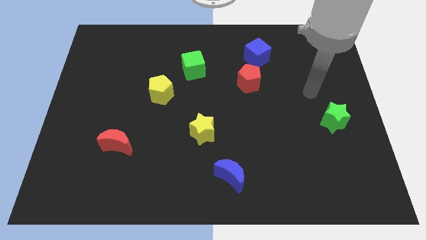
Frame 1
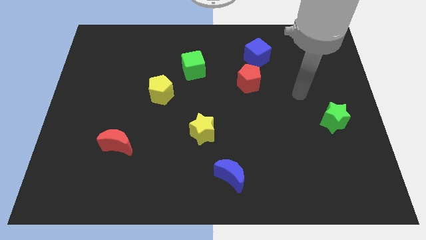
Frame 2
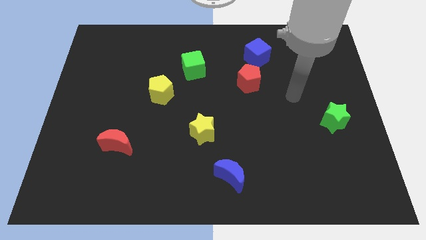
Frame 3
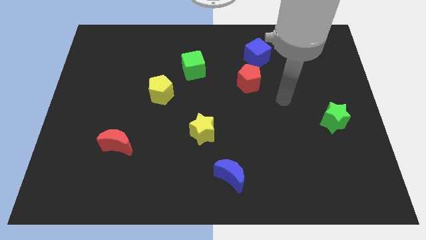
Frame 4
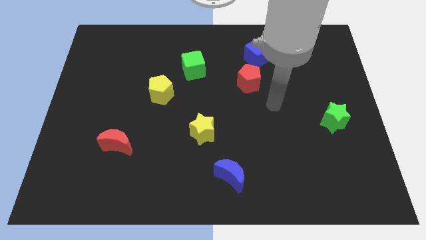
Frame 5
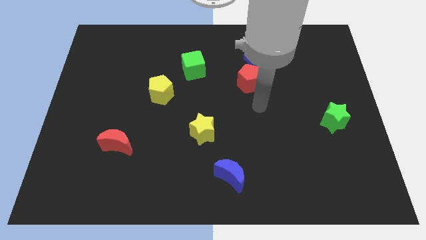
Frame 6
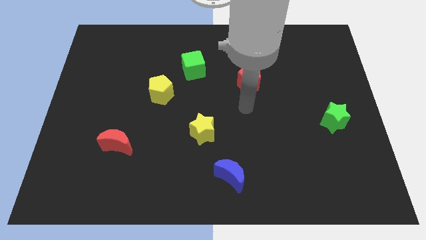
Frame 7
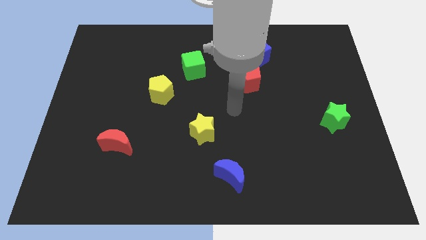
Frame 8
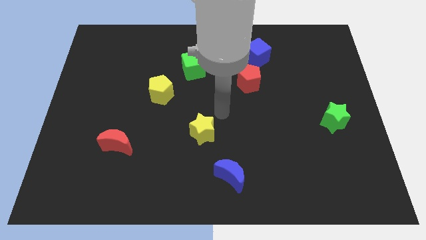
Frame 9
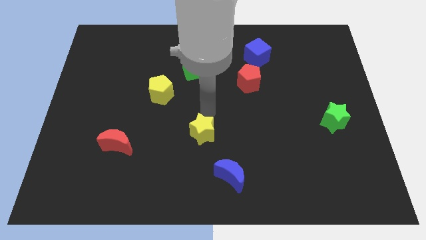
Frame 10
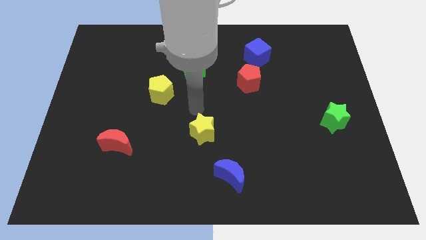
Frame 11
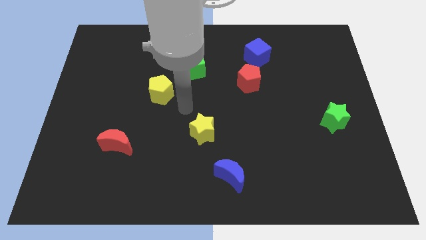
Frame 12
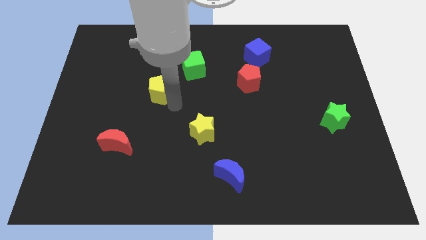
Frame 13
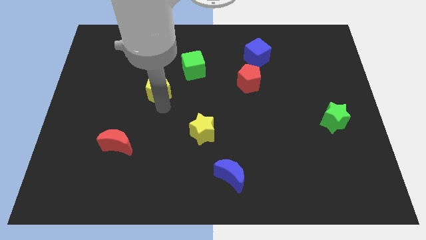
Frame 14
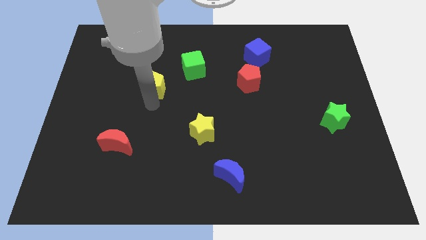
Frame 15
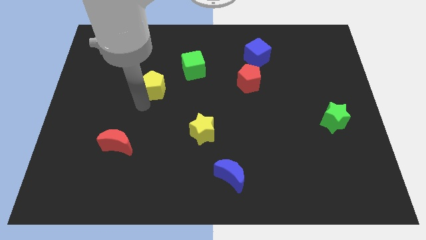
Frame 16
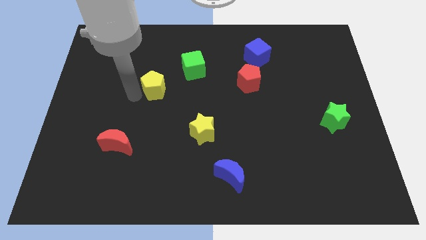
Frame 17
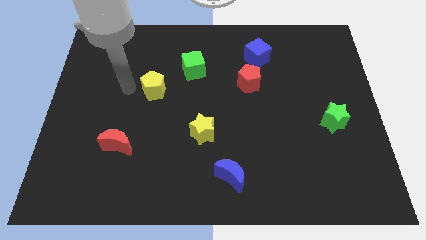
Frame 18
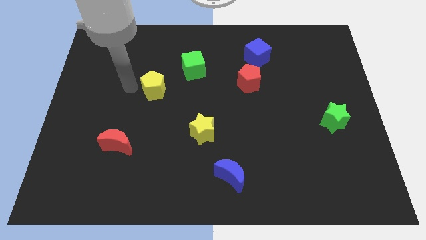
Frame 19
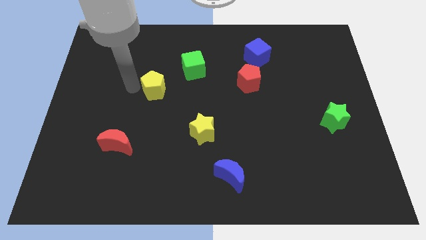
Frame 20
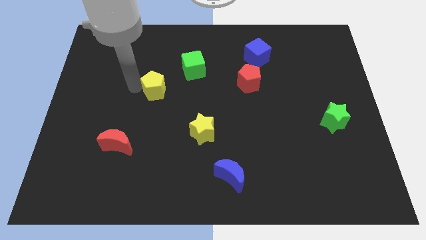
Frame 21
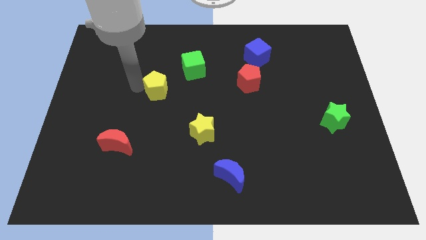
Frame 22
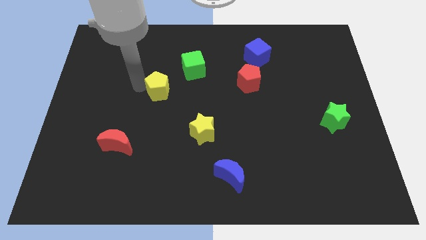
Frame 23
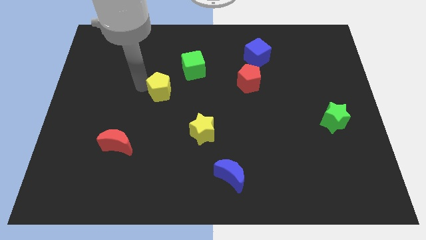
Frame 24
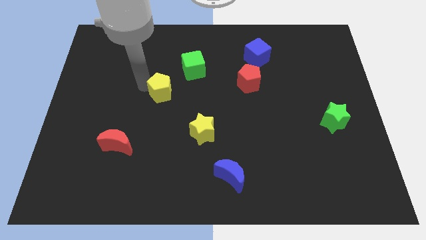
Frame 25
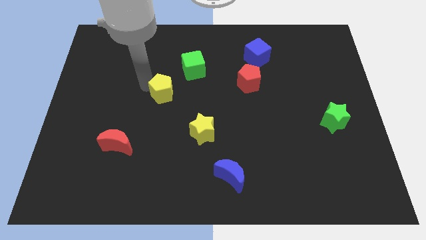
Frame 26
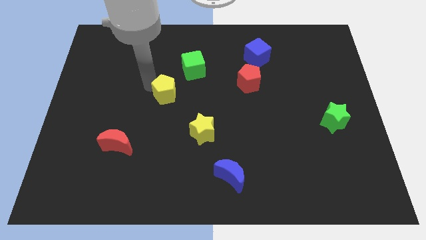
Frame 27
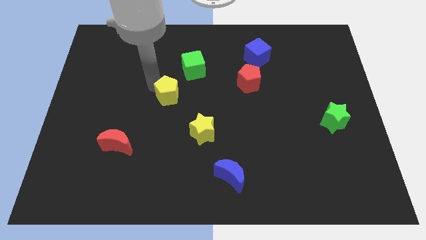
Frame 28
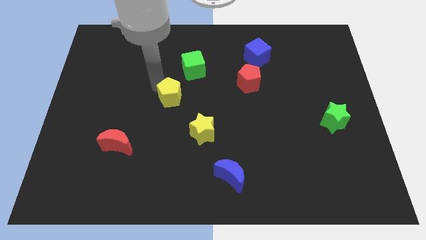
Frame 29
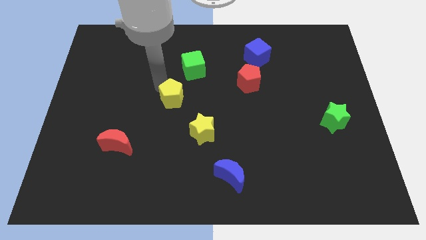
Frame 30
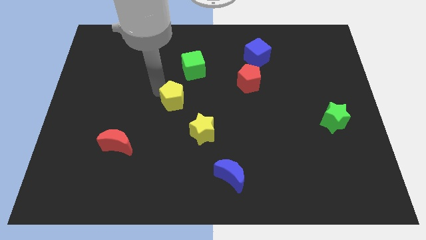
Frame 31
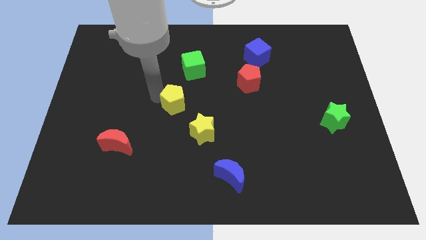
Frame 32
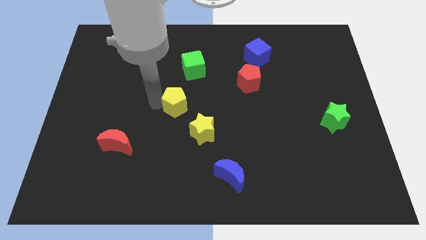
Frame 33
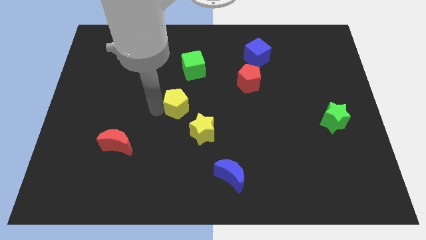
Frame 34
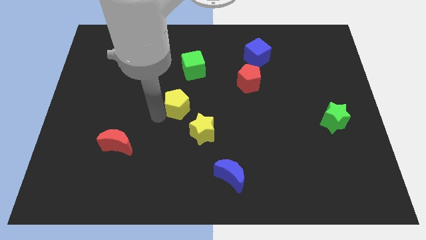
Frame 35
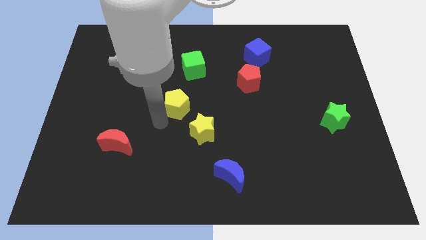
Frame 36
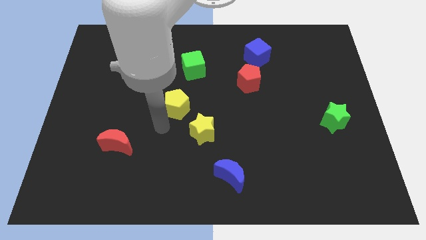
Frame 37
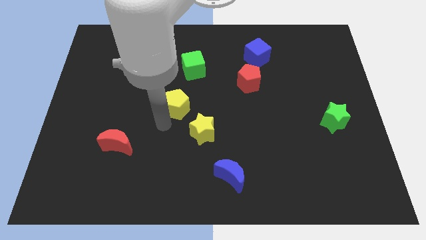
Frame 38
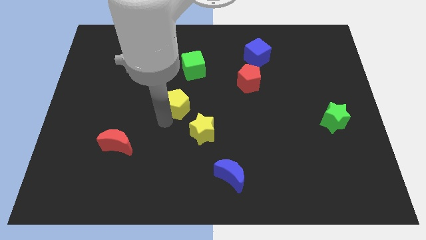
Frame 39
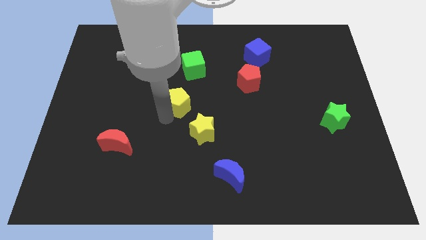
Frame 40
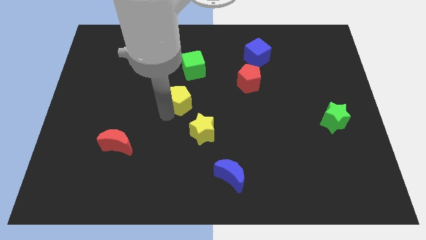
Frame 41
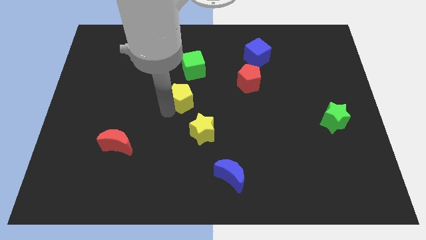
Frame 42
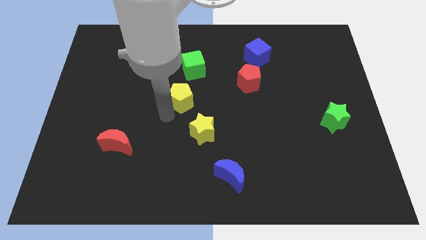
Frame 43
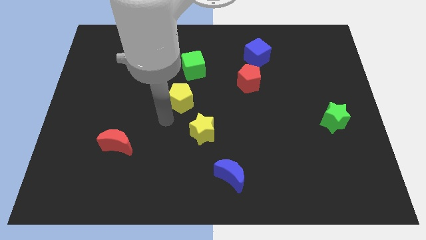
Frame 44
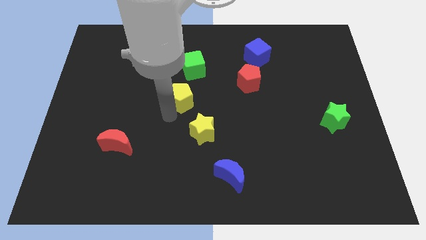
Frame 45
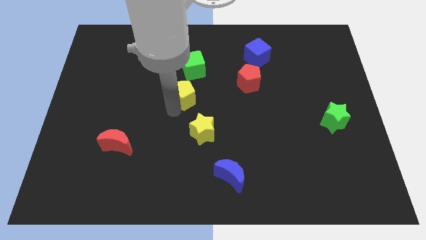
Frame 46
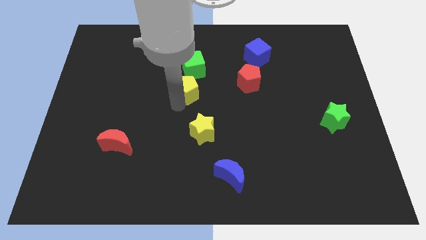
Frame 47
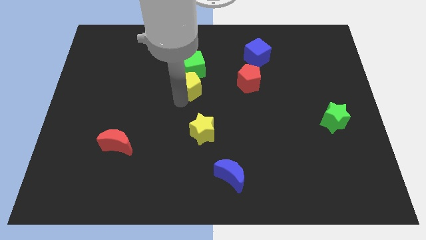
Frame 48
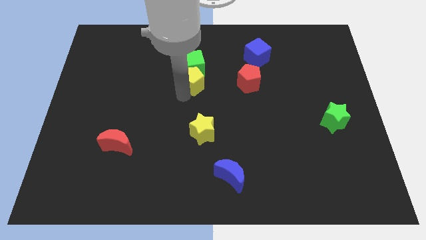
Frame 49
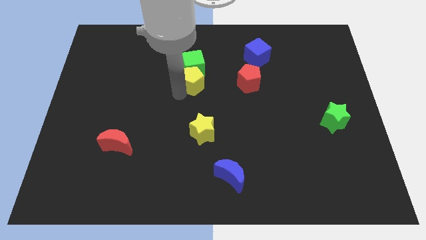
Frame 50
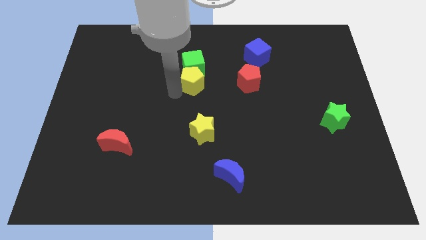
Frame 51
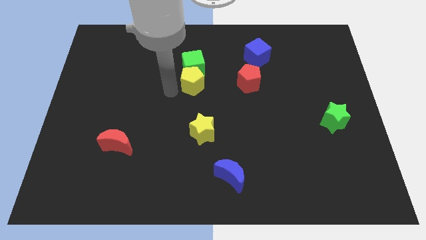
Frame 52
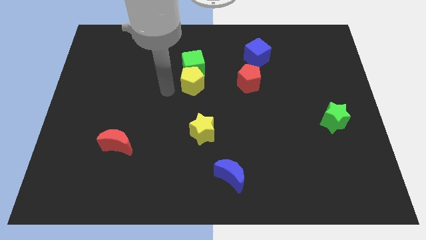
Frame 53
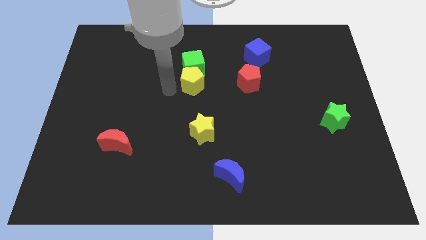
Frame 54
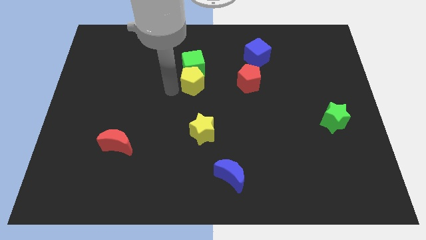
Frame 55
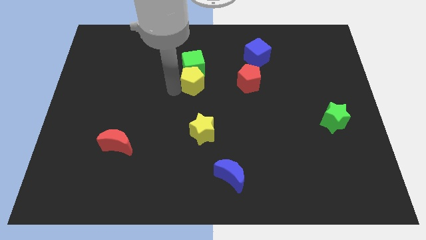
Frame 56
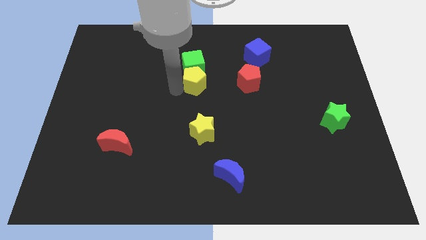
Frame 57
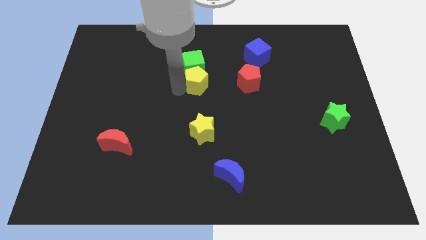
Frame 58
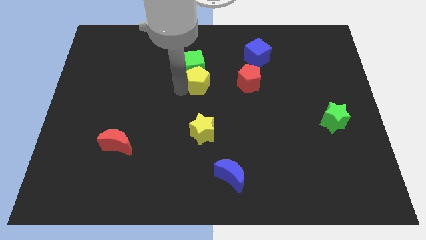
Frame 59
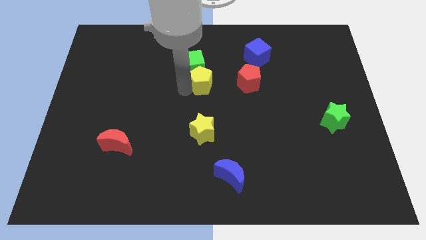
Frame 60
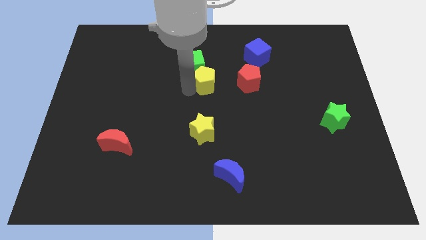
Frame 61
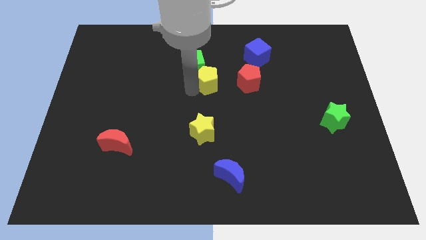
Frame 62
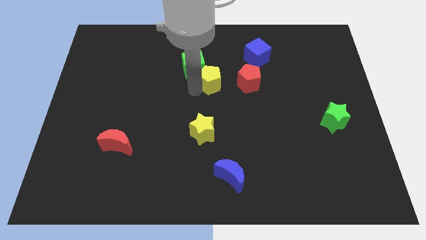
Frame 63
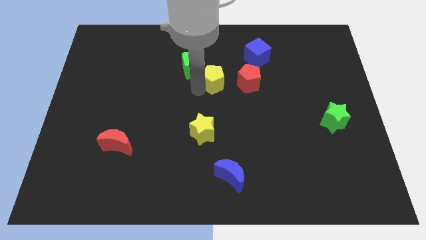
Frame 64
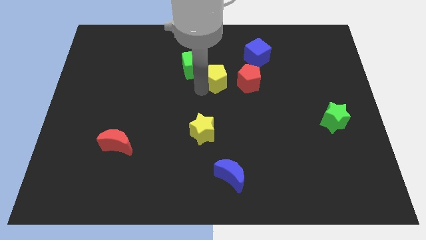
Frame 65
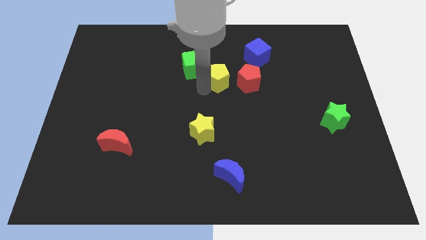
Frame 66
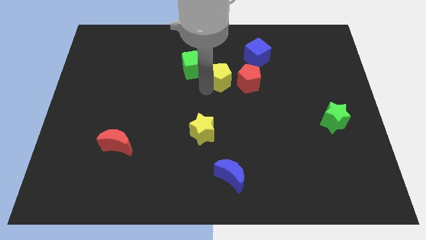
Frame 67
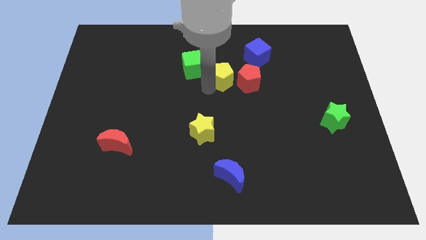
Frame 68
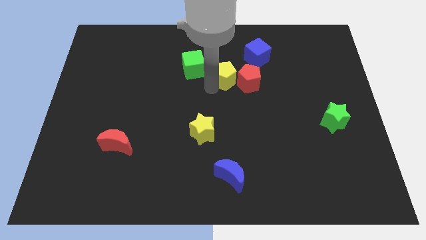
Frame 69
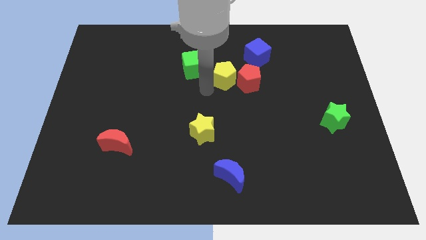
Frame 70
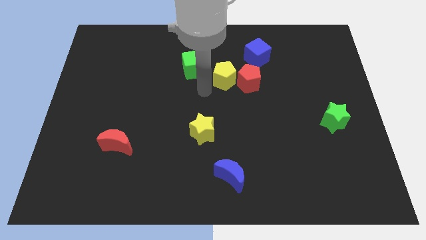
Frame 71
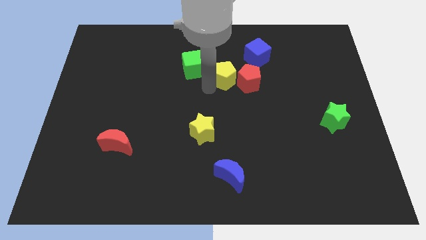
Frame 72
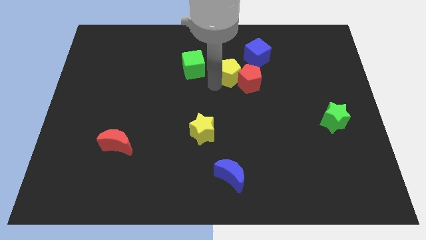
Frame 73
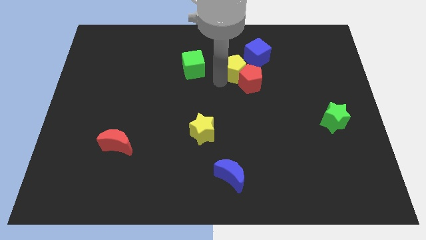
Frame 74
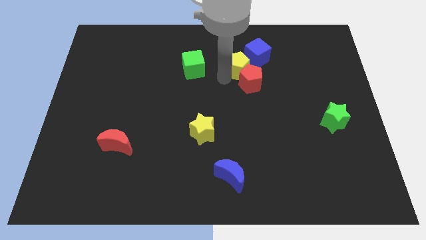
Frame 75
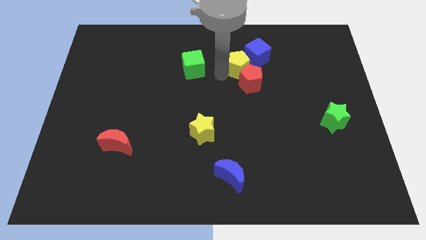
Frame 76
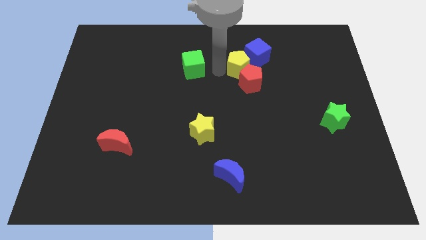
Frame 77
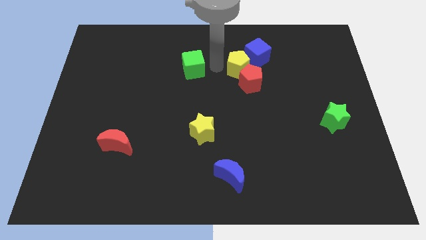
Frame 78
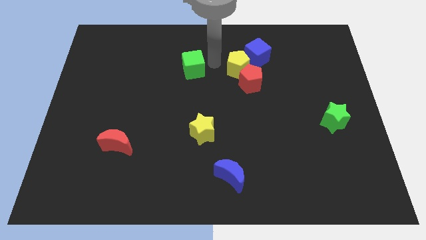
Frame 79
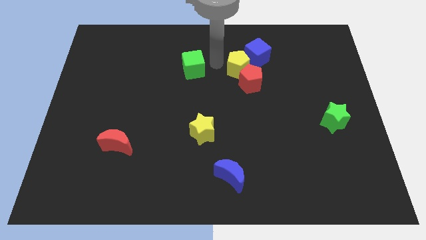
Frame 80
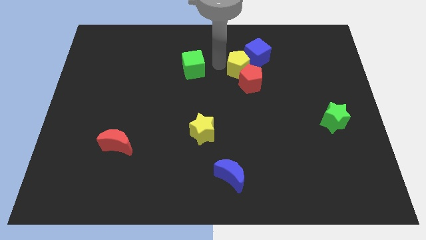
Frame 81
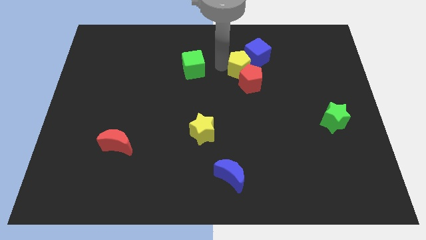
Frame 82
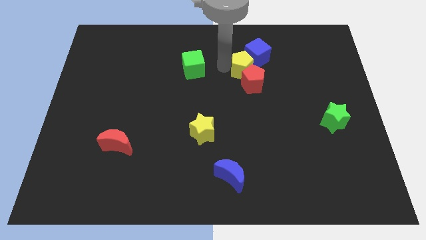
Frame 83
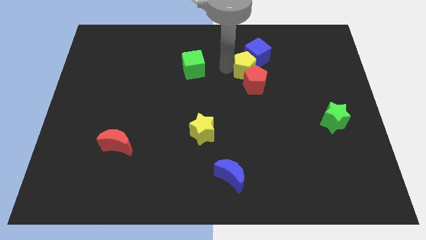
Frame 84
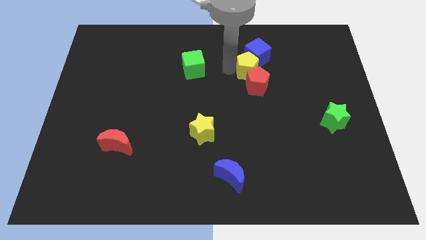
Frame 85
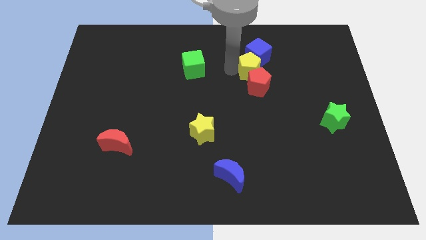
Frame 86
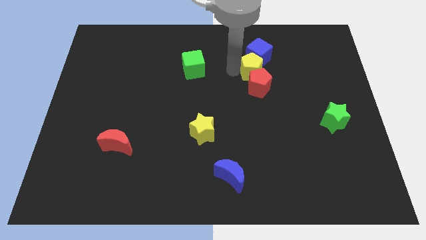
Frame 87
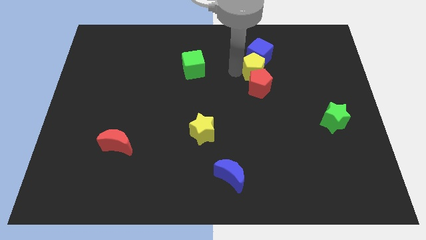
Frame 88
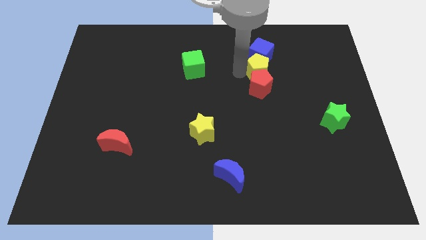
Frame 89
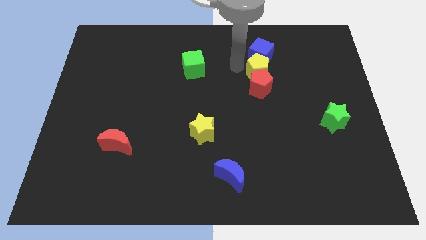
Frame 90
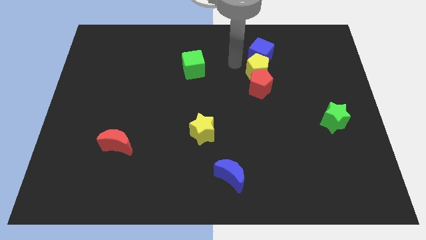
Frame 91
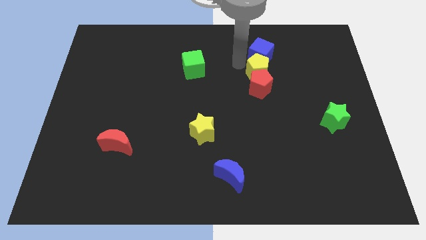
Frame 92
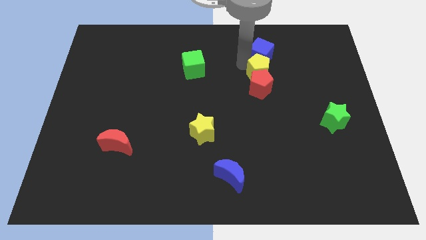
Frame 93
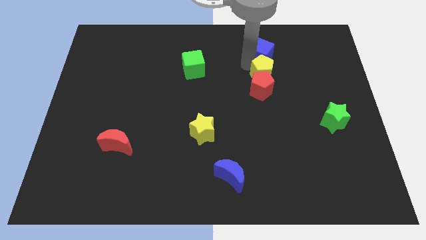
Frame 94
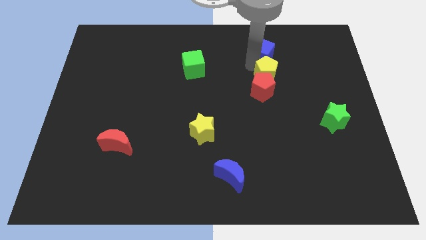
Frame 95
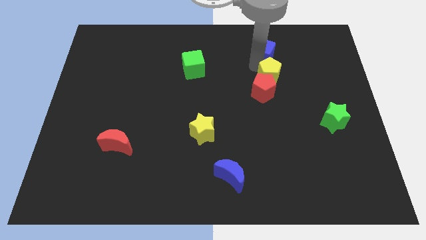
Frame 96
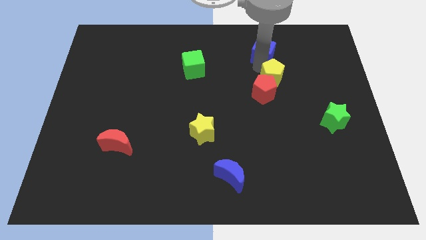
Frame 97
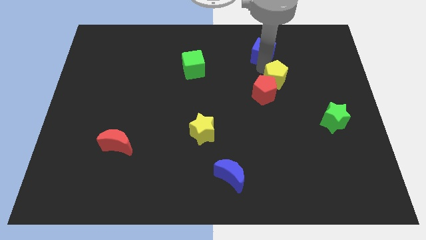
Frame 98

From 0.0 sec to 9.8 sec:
push the yellow pentagon just right of the red pentagon
